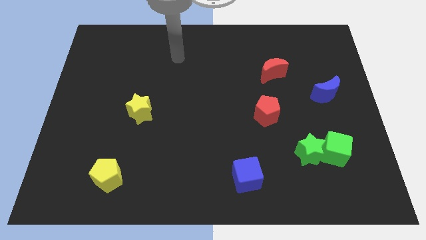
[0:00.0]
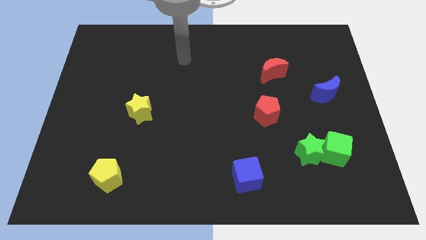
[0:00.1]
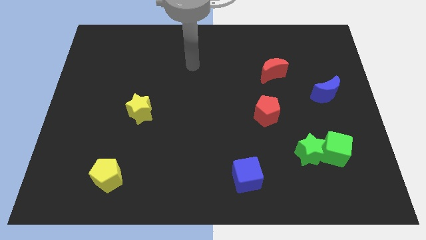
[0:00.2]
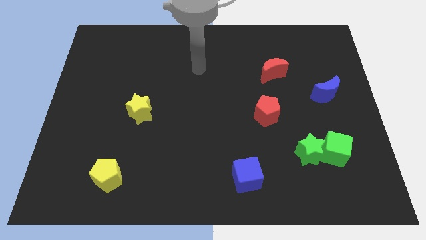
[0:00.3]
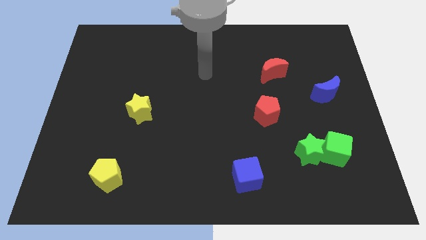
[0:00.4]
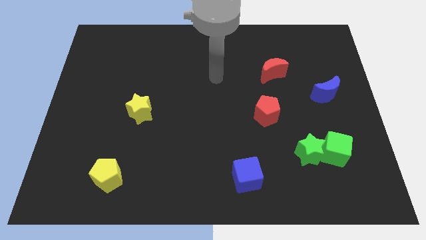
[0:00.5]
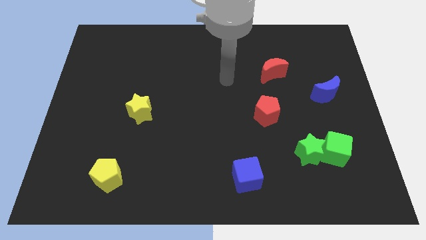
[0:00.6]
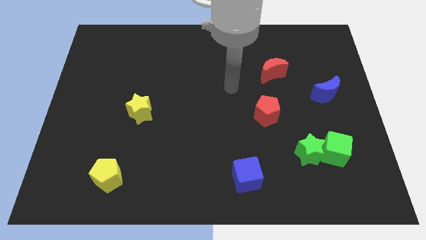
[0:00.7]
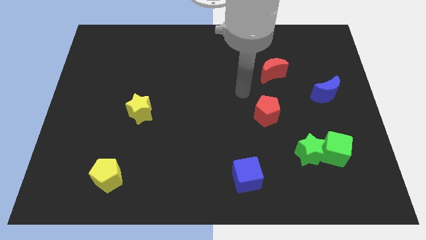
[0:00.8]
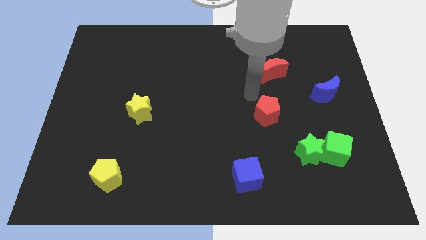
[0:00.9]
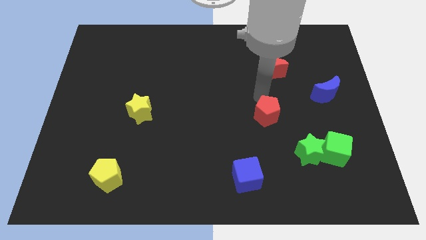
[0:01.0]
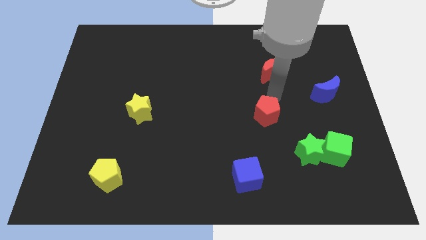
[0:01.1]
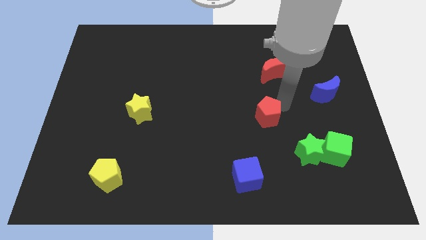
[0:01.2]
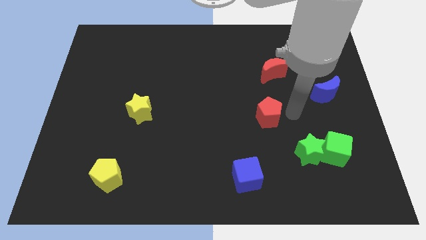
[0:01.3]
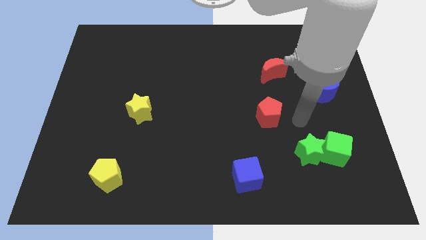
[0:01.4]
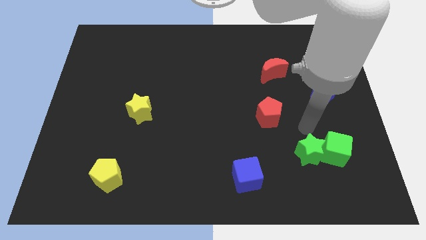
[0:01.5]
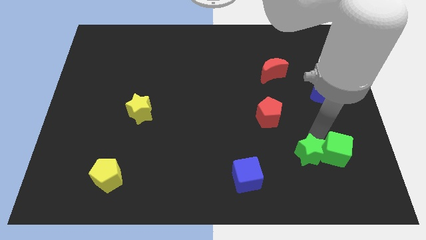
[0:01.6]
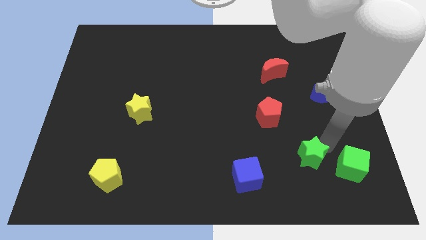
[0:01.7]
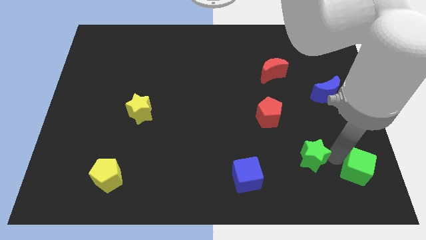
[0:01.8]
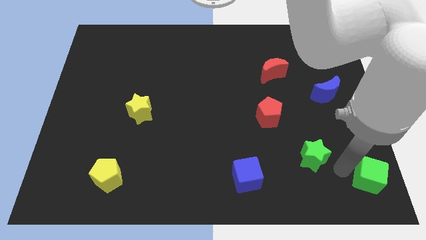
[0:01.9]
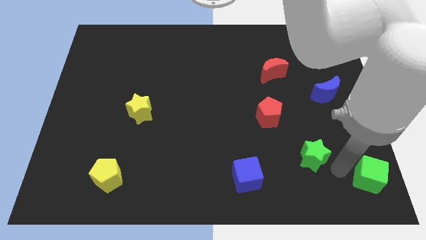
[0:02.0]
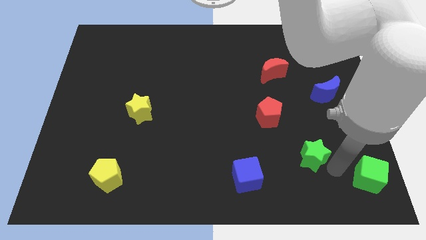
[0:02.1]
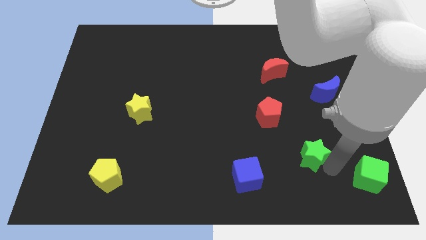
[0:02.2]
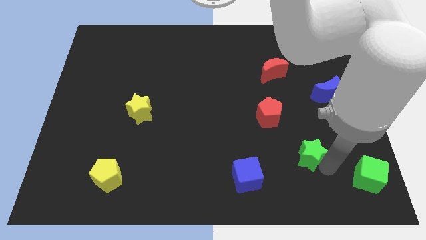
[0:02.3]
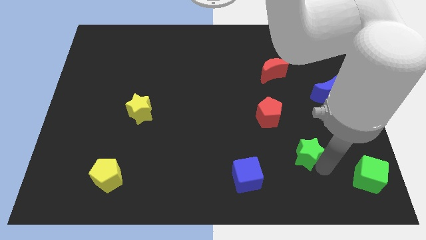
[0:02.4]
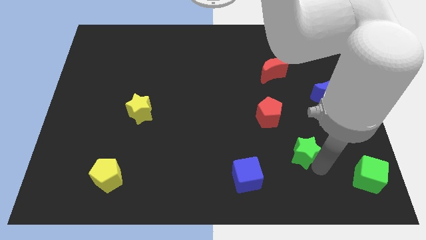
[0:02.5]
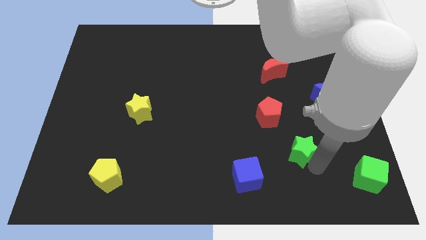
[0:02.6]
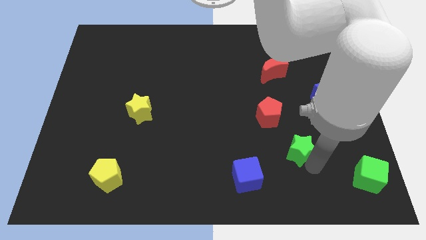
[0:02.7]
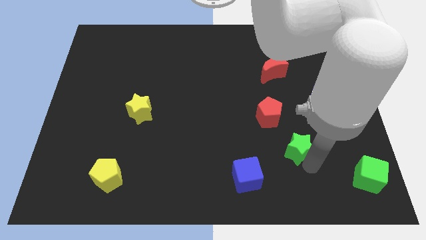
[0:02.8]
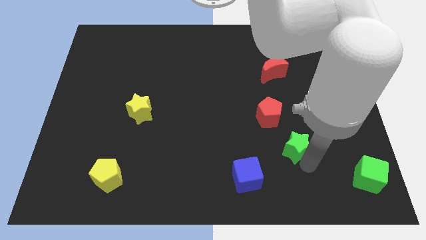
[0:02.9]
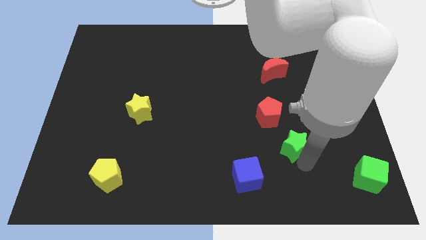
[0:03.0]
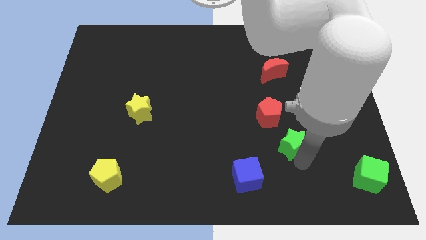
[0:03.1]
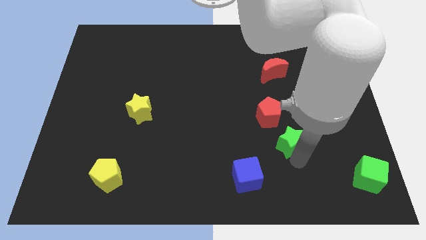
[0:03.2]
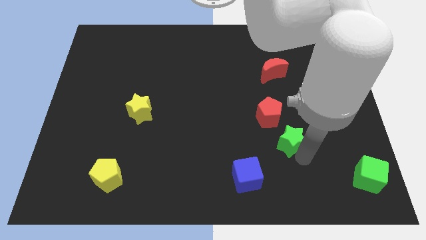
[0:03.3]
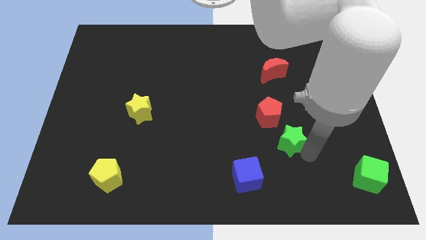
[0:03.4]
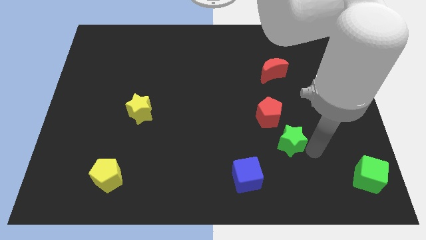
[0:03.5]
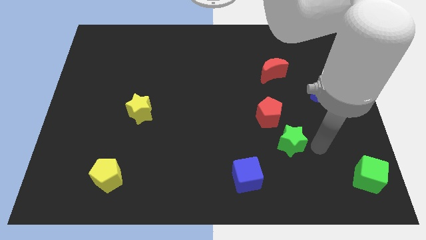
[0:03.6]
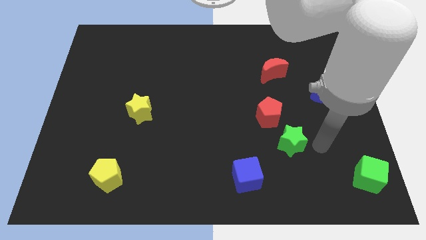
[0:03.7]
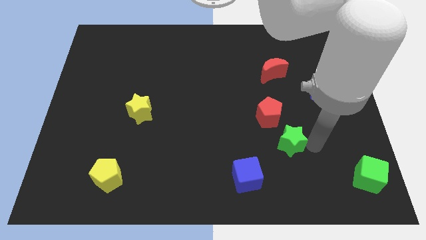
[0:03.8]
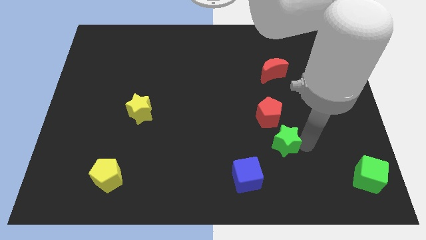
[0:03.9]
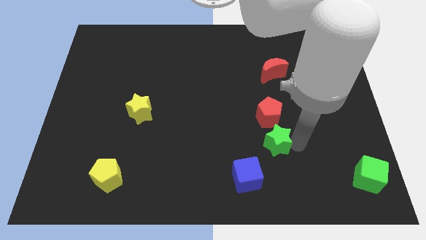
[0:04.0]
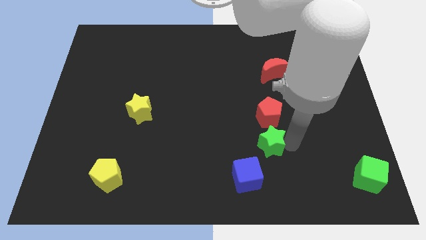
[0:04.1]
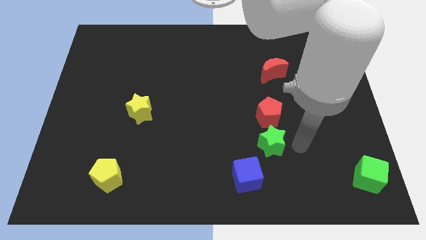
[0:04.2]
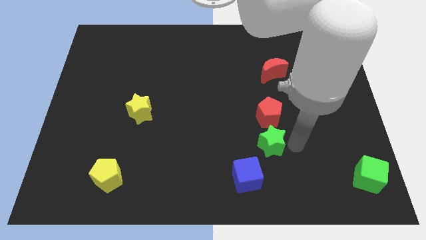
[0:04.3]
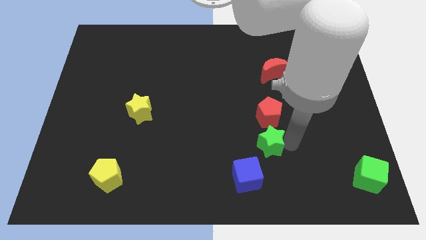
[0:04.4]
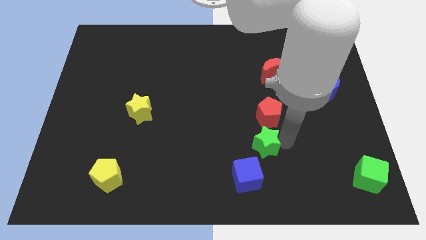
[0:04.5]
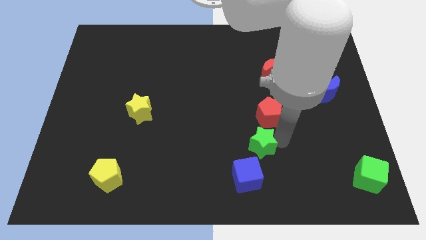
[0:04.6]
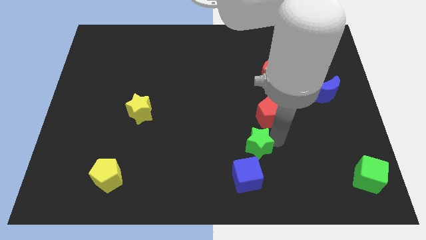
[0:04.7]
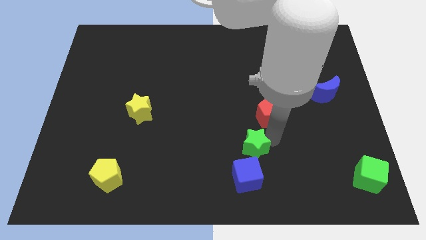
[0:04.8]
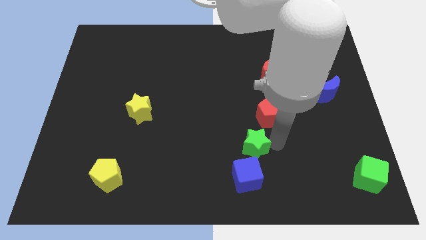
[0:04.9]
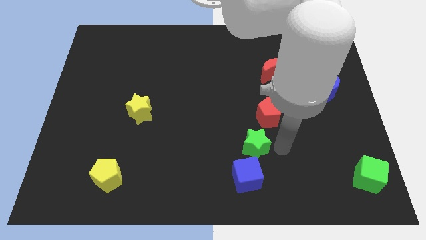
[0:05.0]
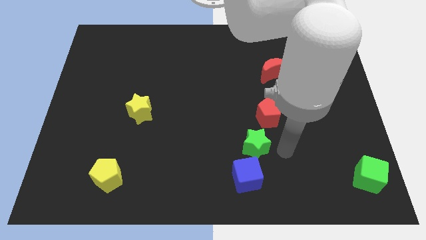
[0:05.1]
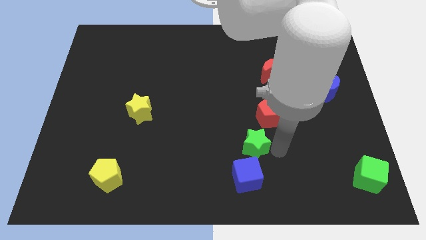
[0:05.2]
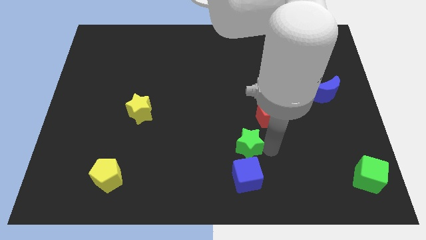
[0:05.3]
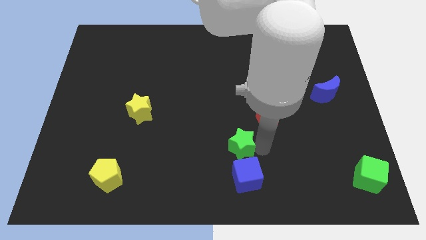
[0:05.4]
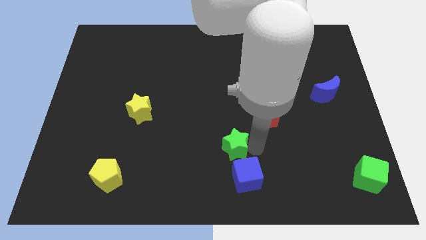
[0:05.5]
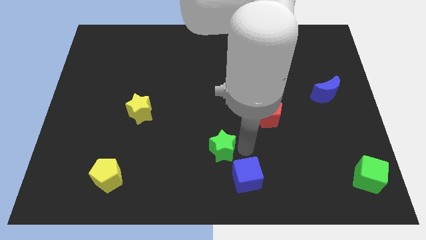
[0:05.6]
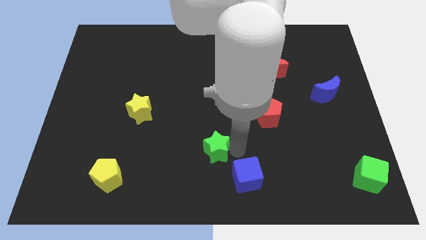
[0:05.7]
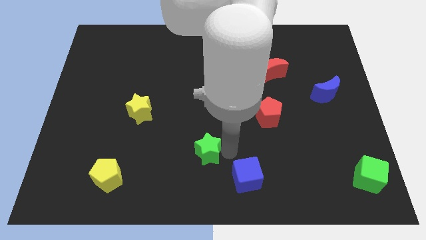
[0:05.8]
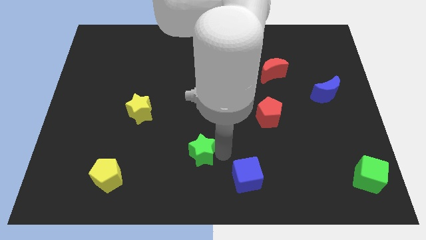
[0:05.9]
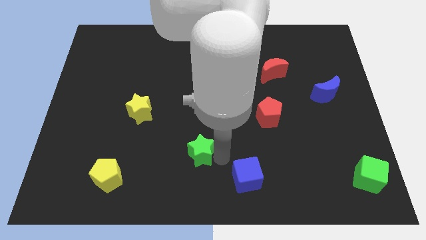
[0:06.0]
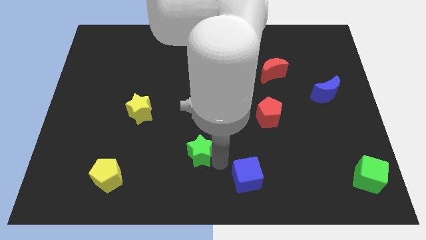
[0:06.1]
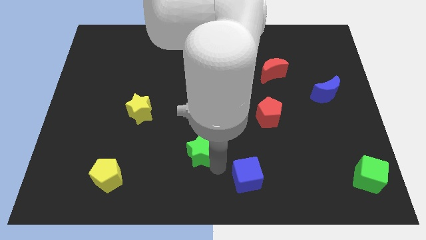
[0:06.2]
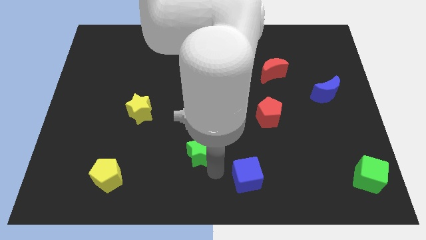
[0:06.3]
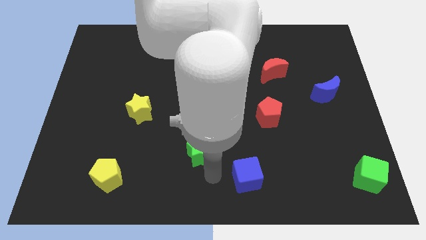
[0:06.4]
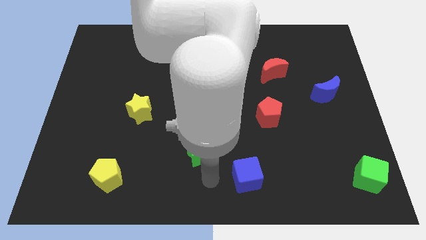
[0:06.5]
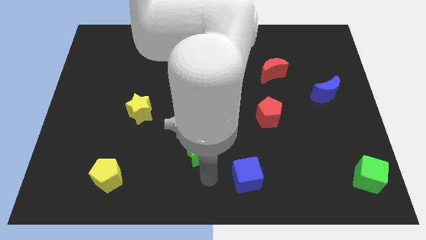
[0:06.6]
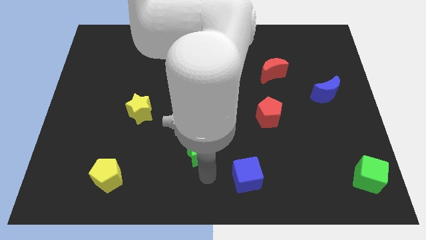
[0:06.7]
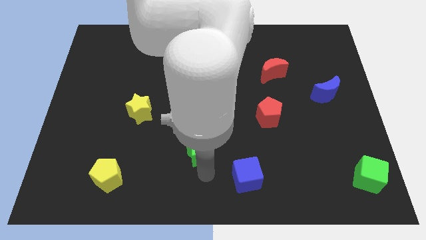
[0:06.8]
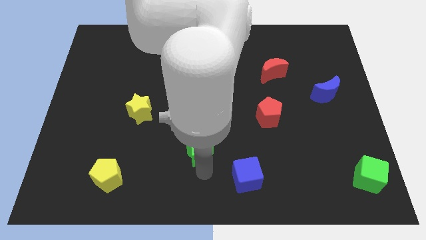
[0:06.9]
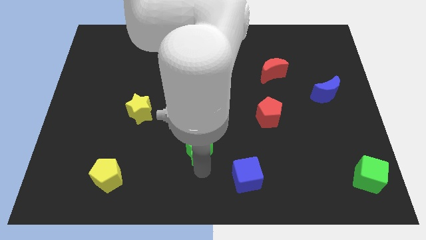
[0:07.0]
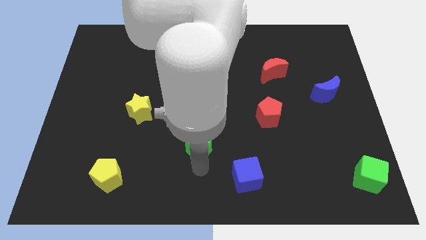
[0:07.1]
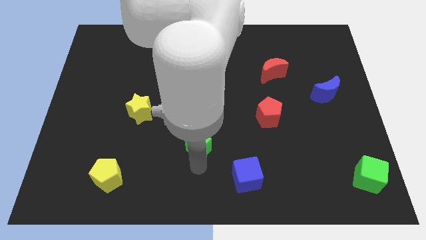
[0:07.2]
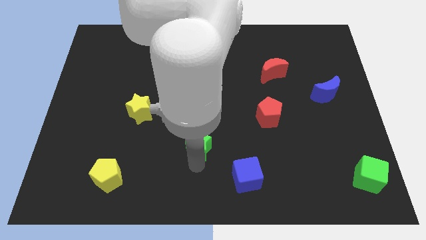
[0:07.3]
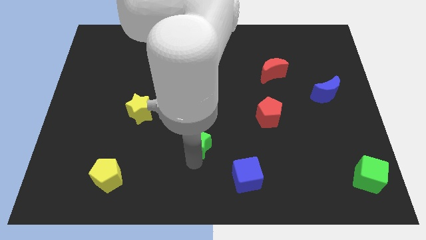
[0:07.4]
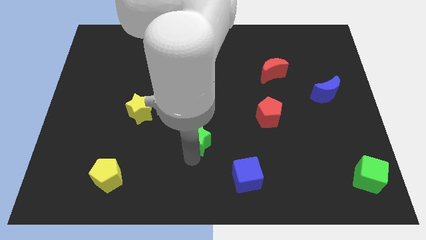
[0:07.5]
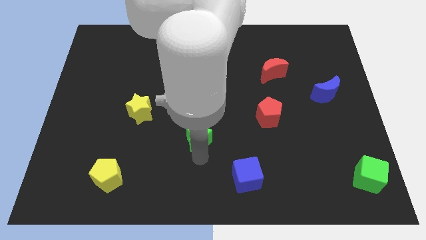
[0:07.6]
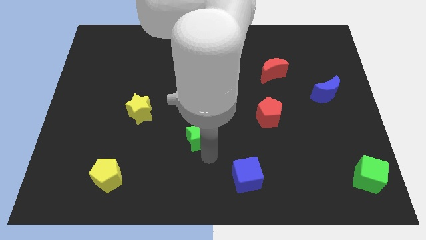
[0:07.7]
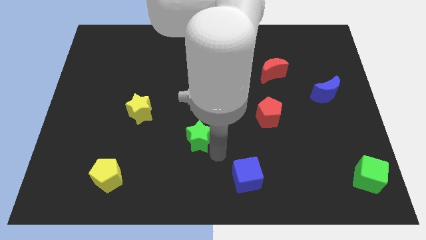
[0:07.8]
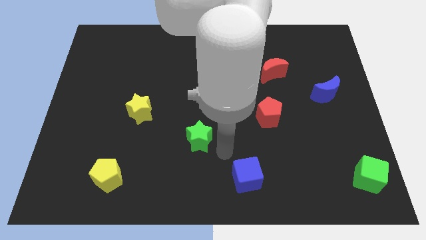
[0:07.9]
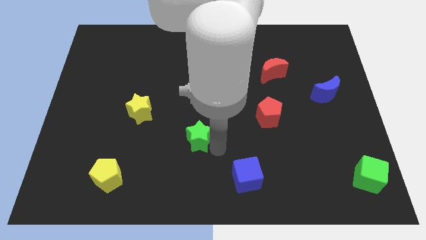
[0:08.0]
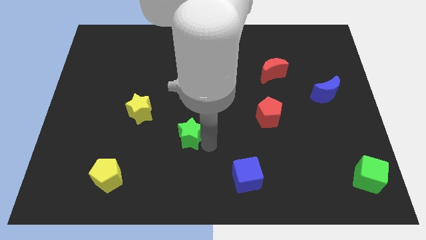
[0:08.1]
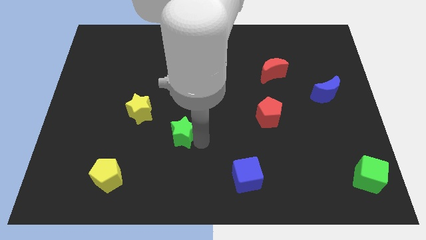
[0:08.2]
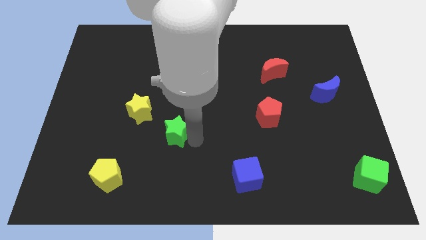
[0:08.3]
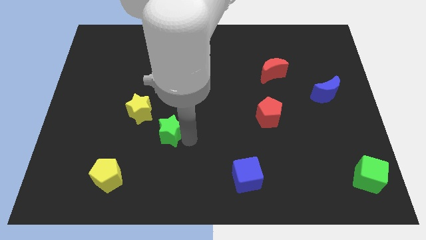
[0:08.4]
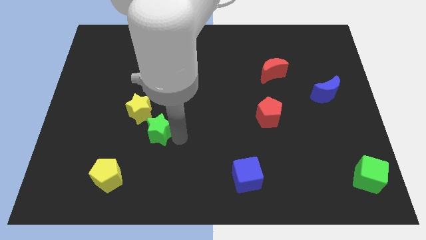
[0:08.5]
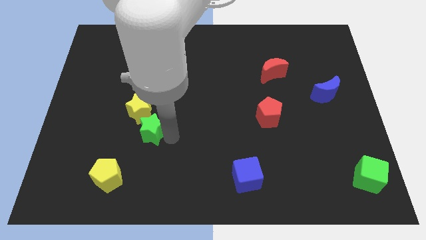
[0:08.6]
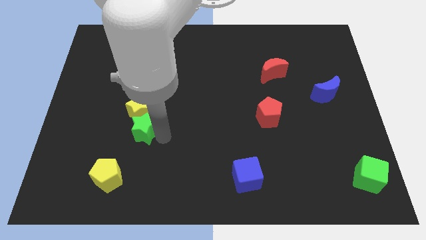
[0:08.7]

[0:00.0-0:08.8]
push the green star towards the yellow star
